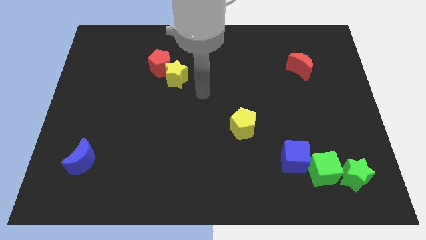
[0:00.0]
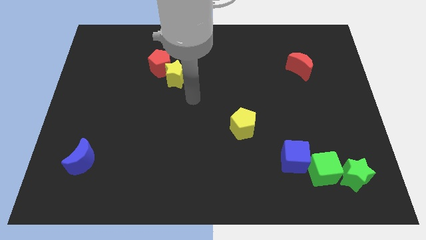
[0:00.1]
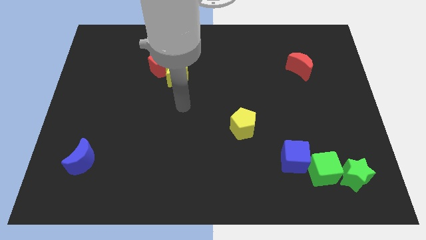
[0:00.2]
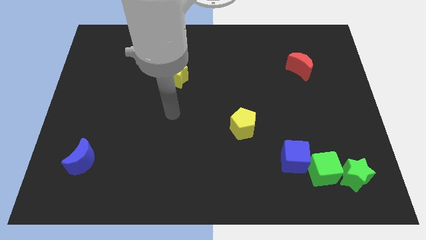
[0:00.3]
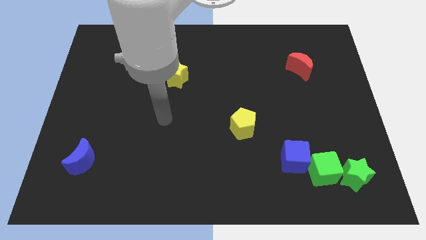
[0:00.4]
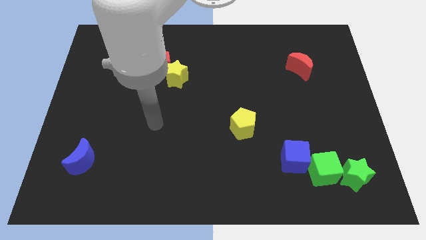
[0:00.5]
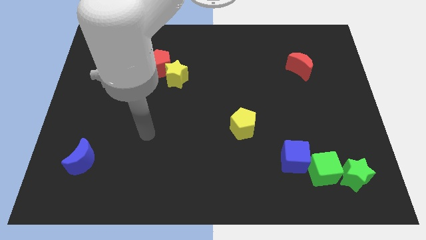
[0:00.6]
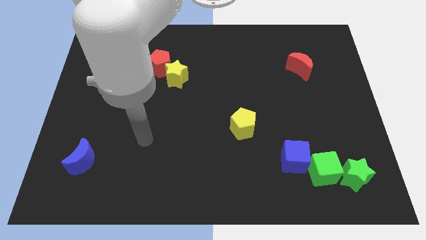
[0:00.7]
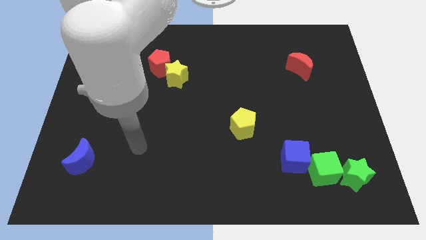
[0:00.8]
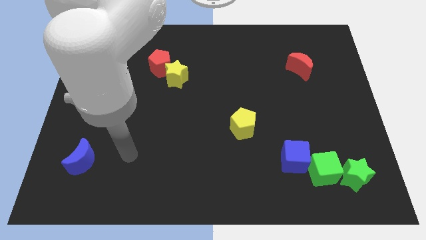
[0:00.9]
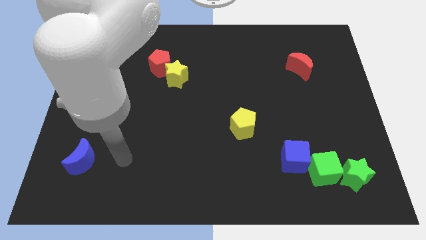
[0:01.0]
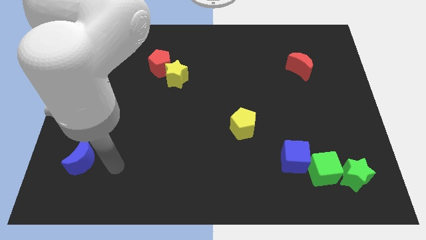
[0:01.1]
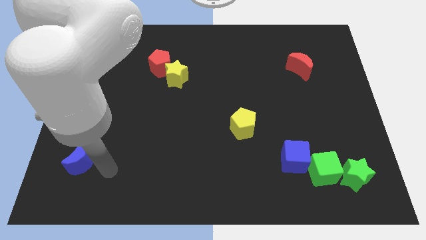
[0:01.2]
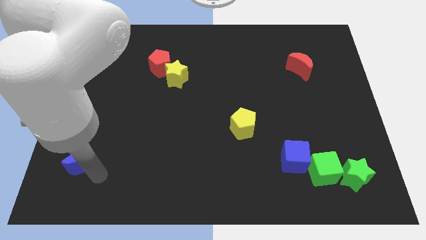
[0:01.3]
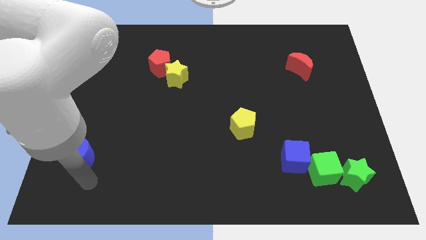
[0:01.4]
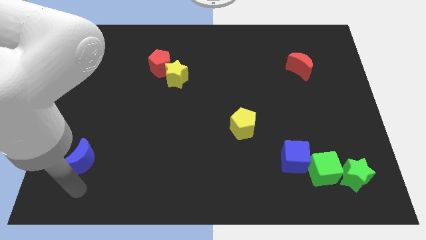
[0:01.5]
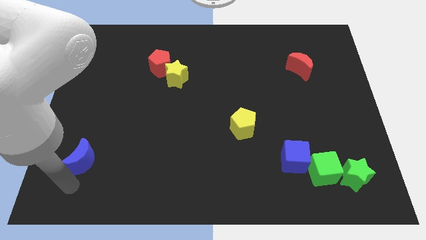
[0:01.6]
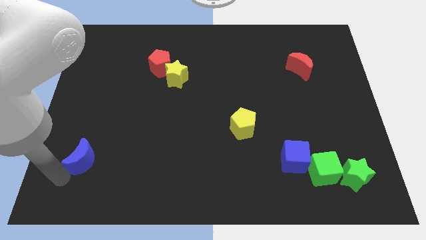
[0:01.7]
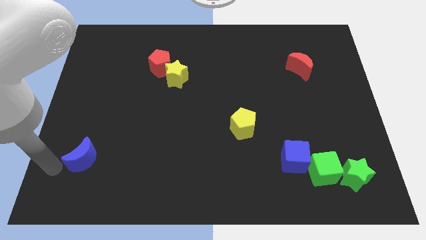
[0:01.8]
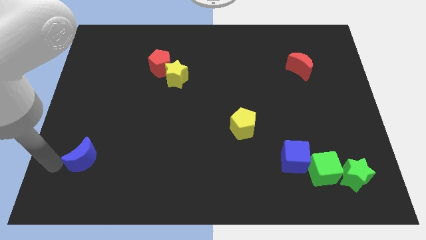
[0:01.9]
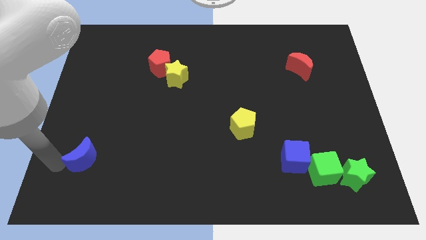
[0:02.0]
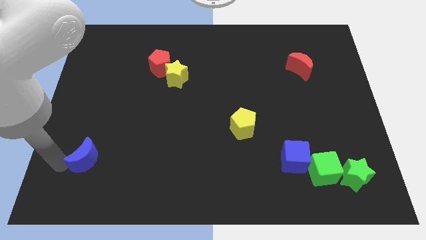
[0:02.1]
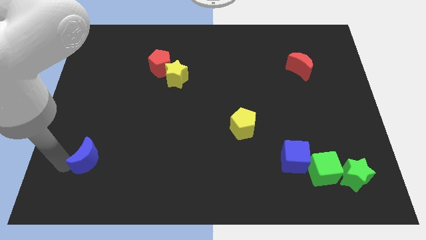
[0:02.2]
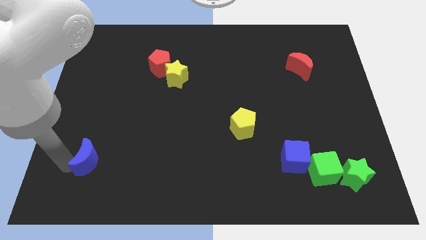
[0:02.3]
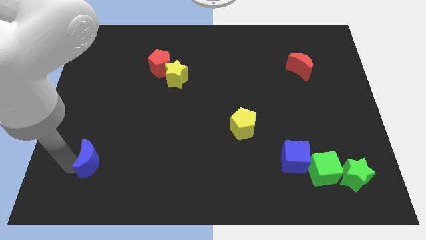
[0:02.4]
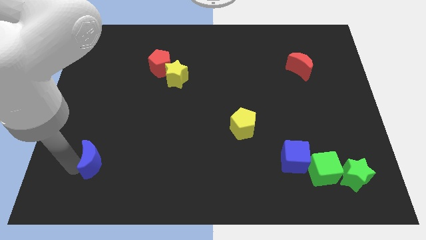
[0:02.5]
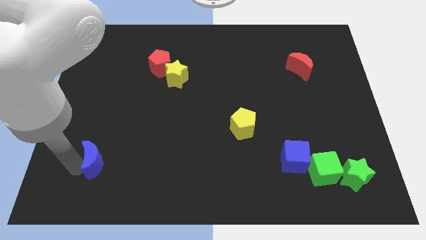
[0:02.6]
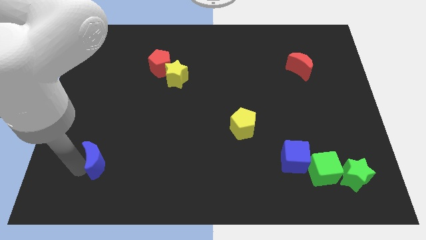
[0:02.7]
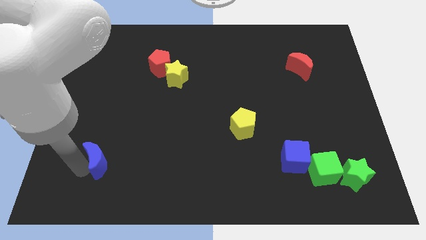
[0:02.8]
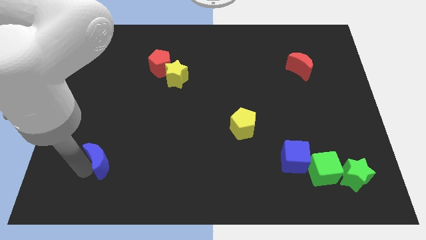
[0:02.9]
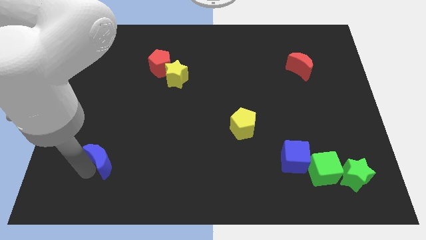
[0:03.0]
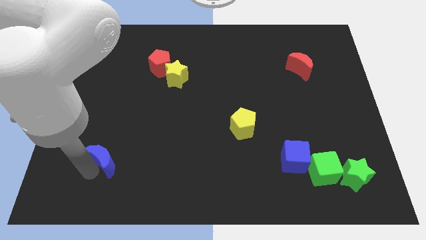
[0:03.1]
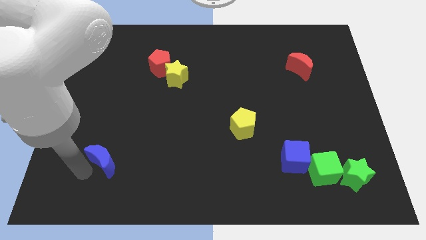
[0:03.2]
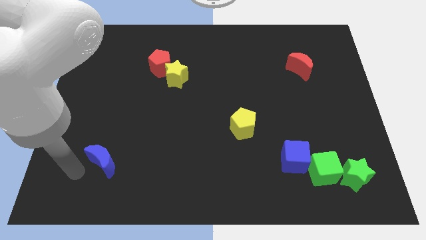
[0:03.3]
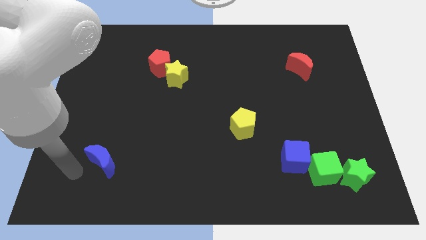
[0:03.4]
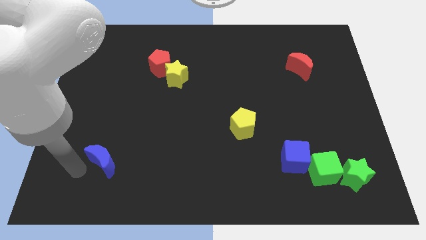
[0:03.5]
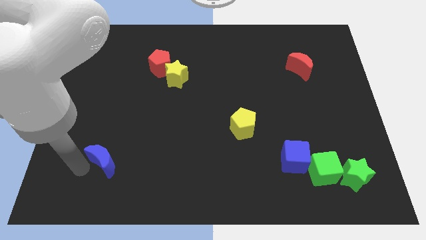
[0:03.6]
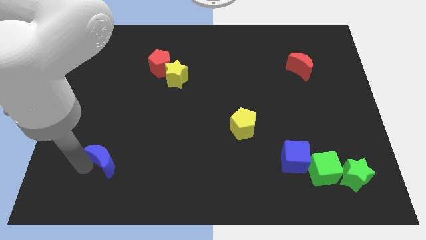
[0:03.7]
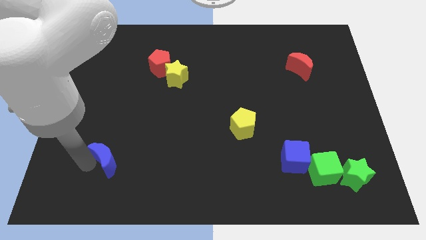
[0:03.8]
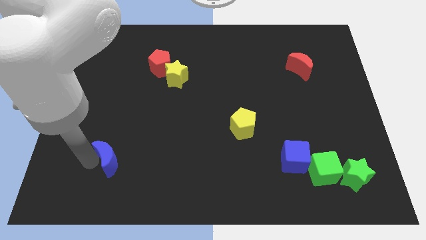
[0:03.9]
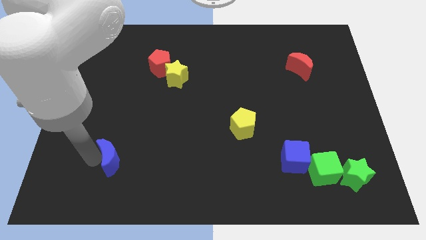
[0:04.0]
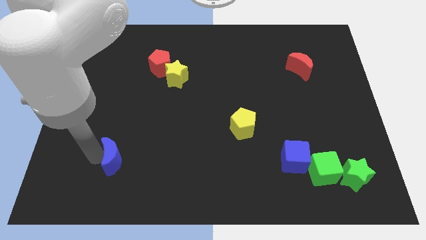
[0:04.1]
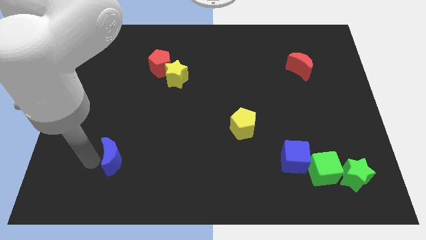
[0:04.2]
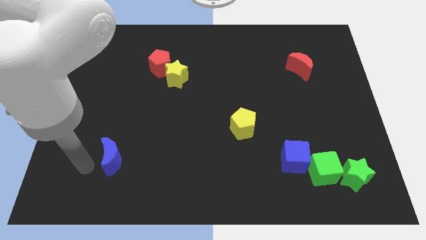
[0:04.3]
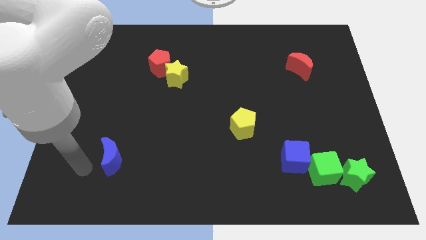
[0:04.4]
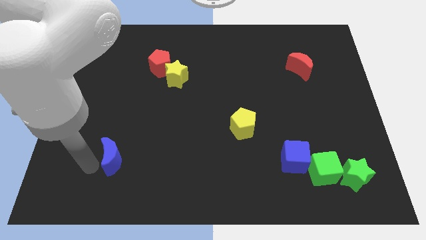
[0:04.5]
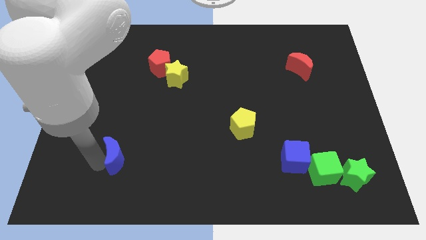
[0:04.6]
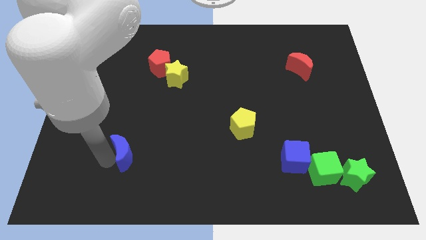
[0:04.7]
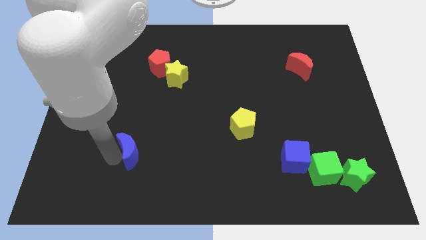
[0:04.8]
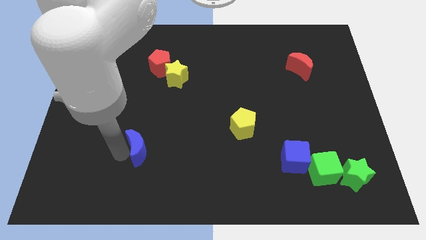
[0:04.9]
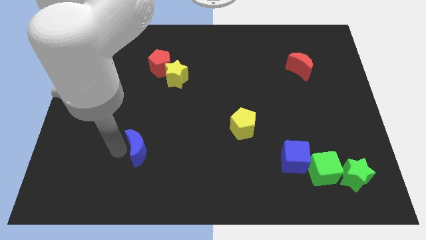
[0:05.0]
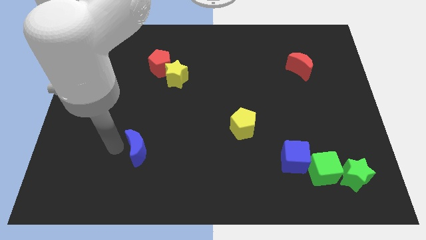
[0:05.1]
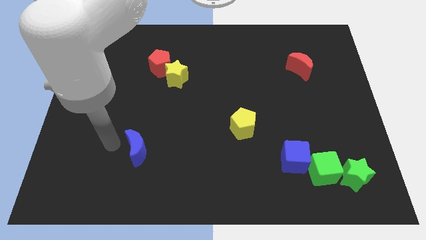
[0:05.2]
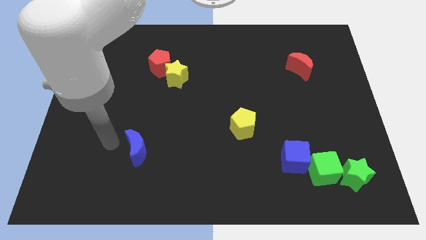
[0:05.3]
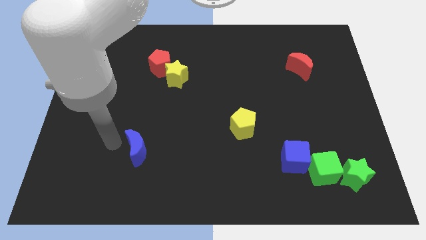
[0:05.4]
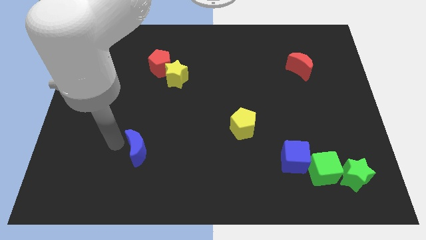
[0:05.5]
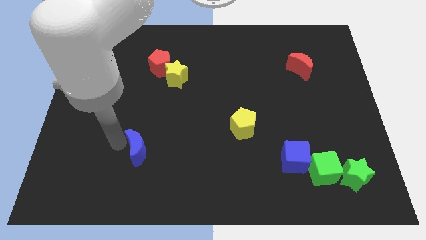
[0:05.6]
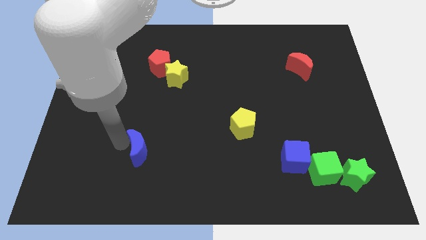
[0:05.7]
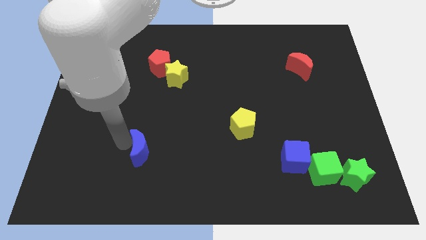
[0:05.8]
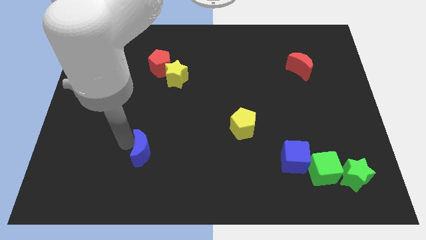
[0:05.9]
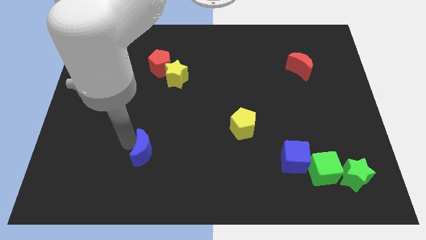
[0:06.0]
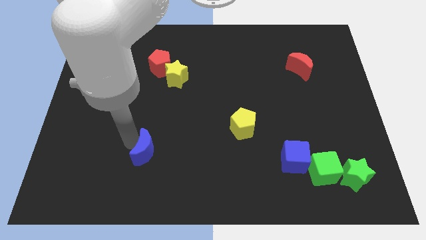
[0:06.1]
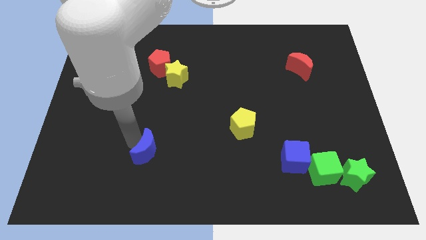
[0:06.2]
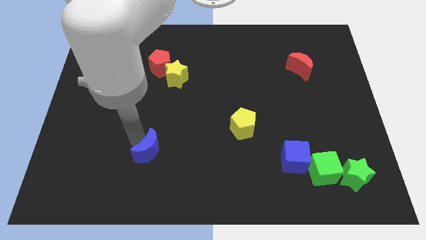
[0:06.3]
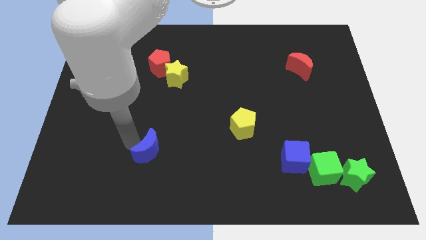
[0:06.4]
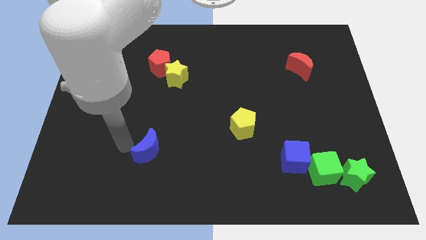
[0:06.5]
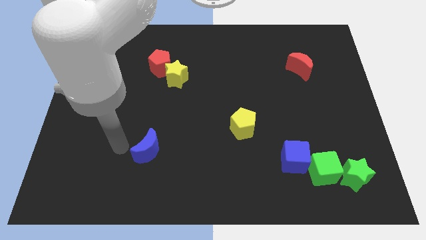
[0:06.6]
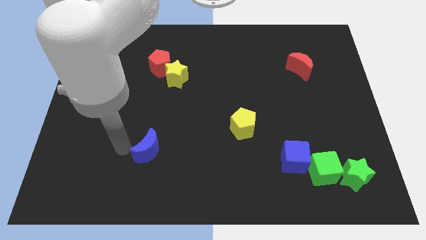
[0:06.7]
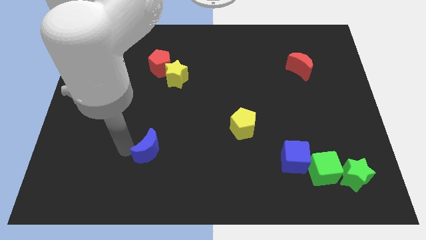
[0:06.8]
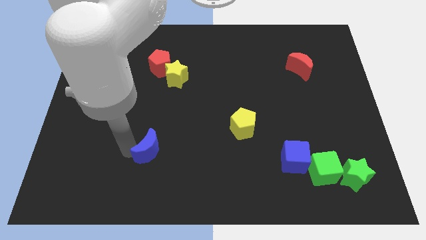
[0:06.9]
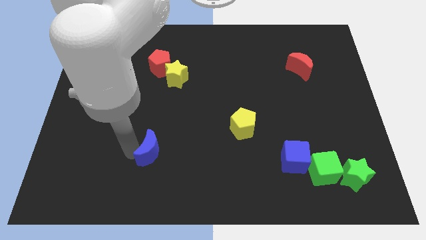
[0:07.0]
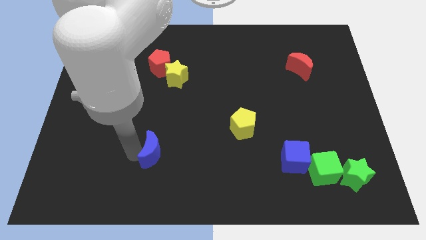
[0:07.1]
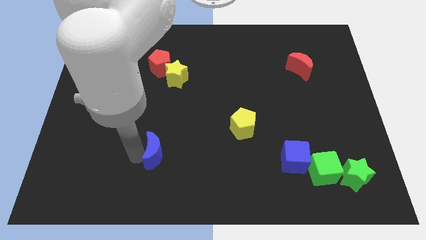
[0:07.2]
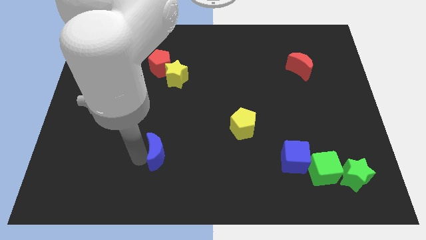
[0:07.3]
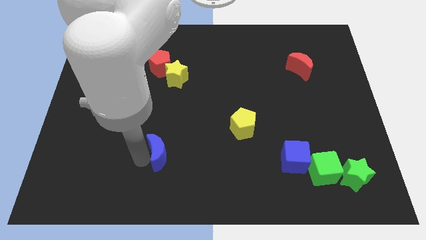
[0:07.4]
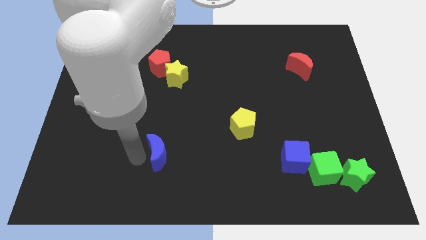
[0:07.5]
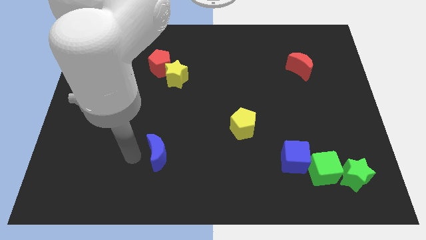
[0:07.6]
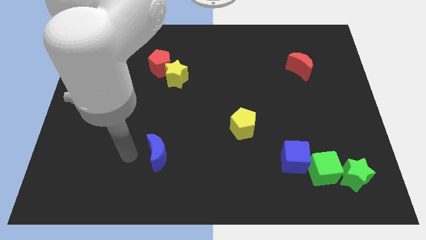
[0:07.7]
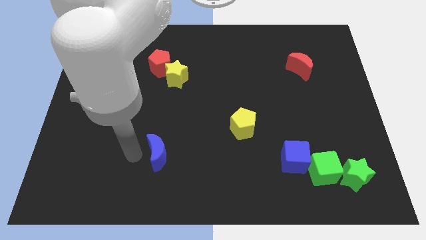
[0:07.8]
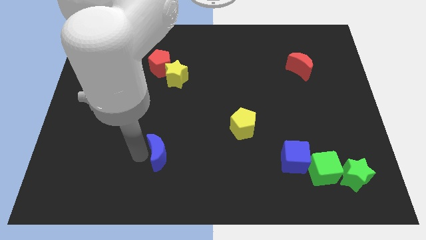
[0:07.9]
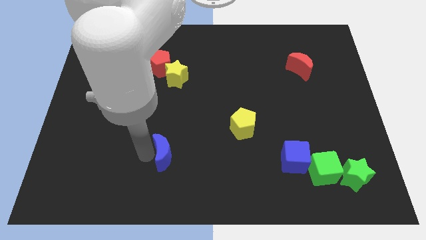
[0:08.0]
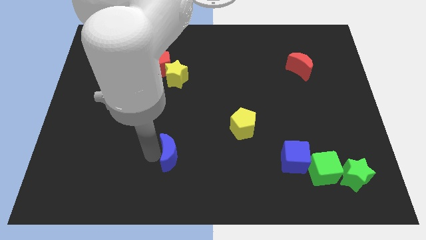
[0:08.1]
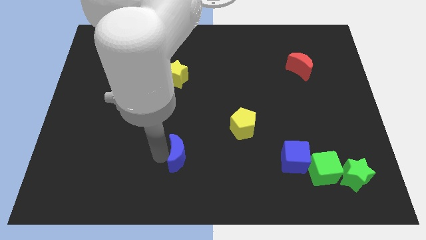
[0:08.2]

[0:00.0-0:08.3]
slide the blue moon right
